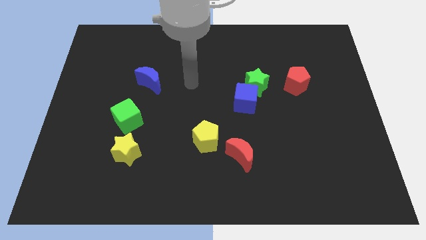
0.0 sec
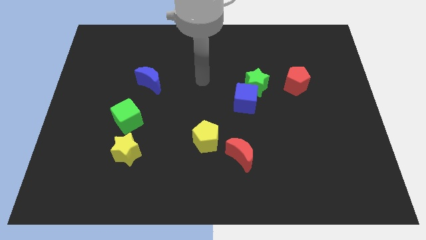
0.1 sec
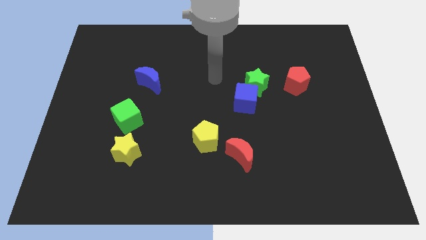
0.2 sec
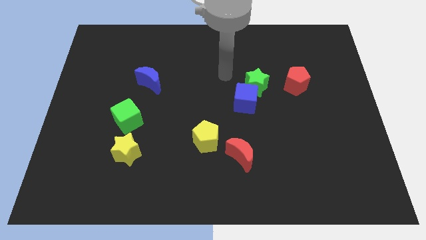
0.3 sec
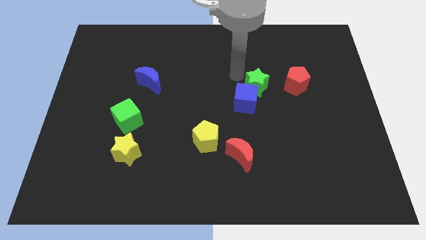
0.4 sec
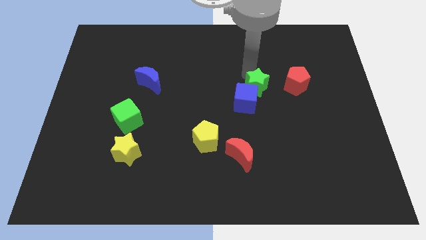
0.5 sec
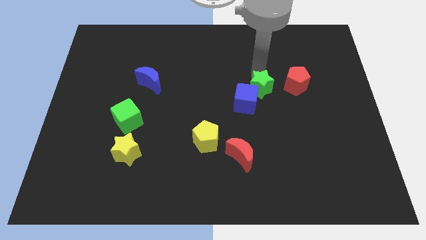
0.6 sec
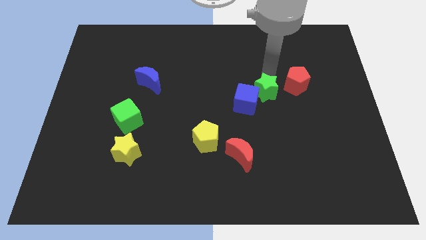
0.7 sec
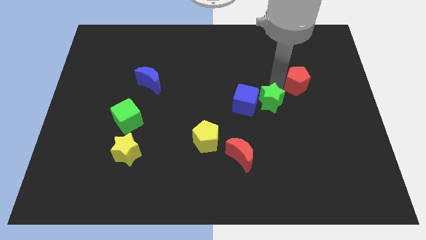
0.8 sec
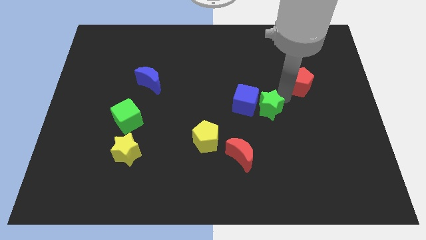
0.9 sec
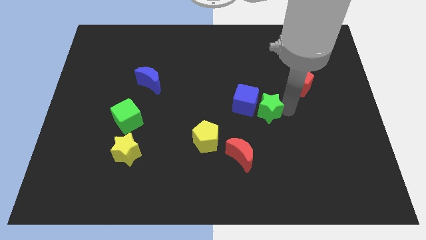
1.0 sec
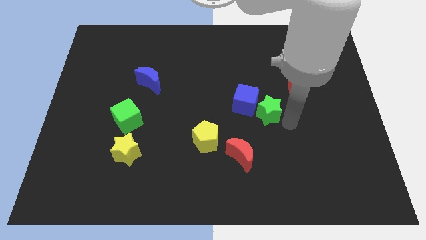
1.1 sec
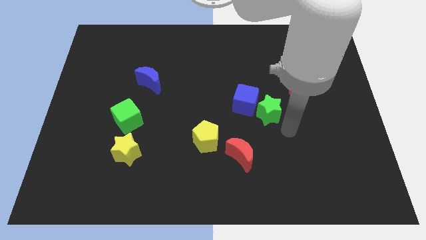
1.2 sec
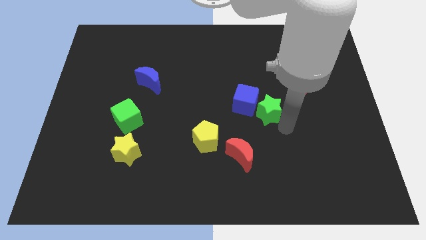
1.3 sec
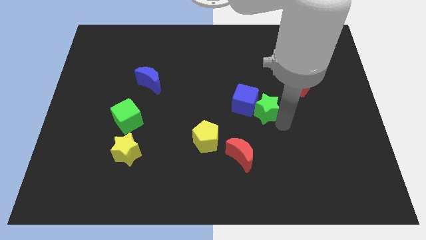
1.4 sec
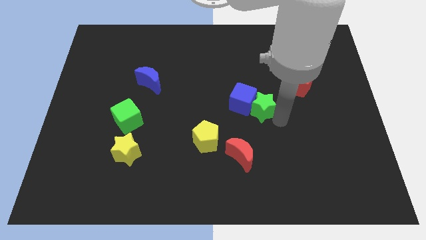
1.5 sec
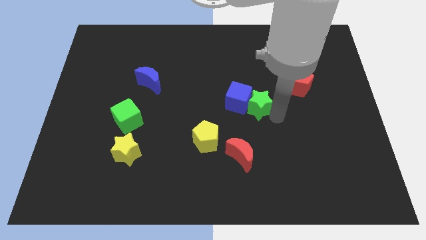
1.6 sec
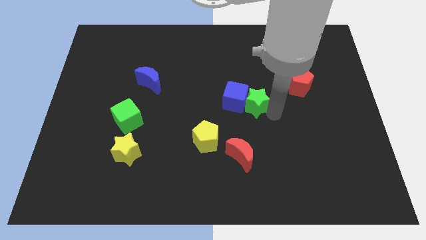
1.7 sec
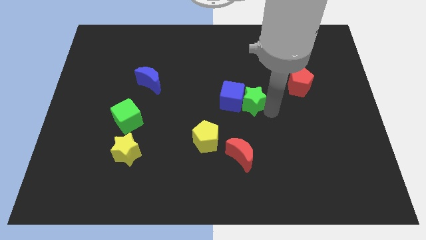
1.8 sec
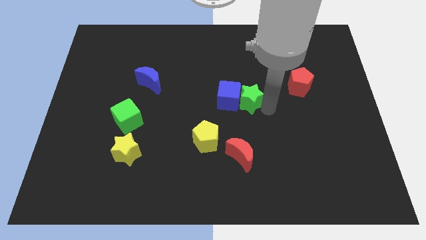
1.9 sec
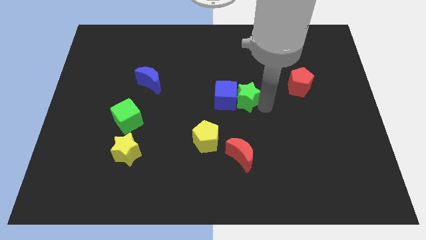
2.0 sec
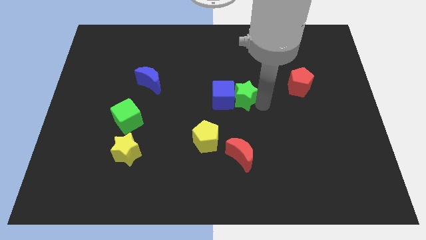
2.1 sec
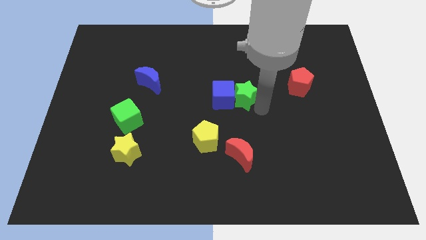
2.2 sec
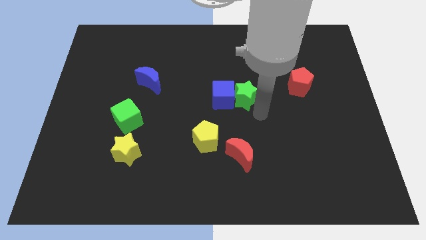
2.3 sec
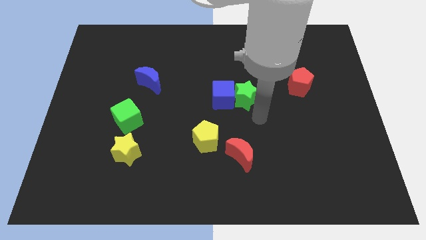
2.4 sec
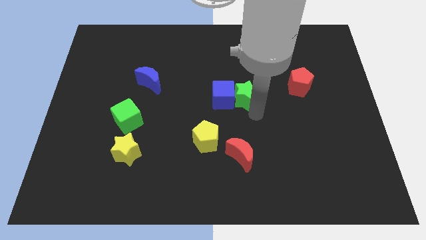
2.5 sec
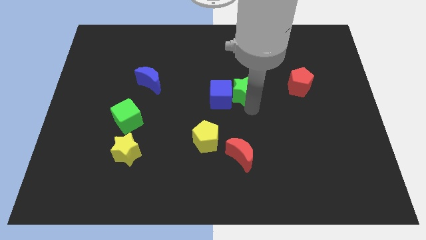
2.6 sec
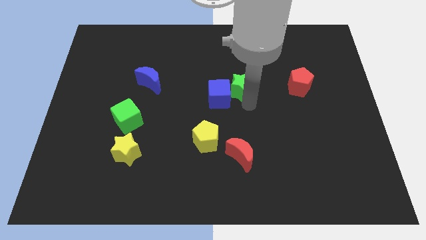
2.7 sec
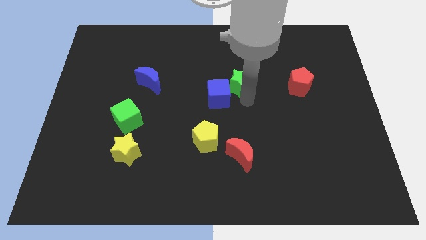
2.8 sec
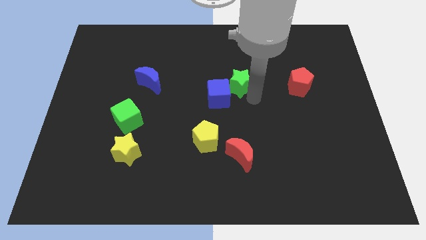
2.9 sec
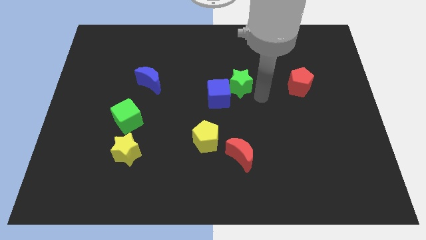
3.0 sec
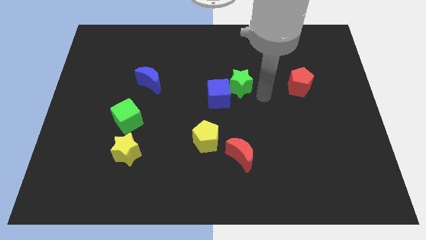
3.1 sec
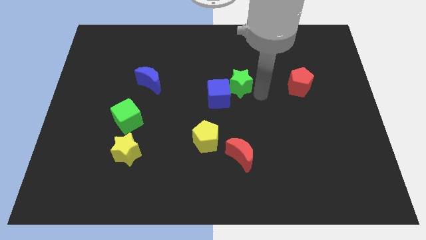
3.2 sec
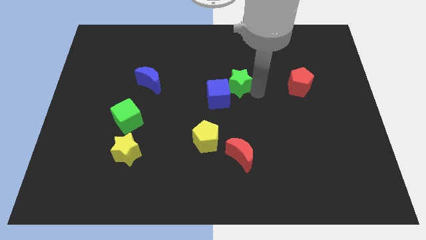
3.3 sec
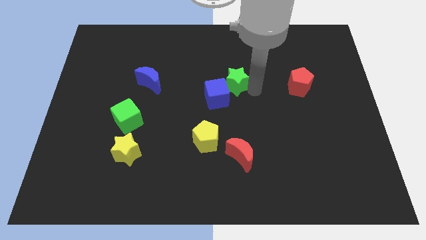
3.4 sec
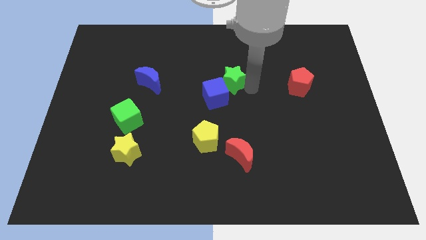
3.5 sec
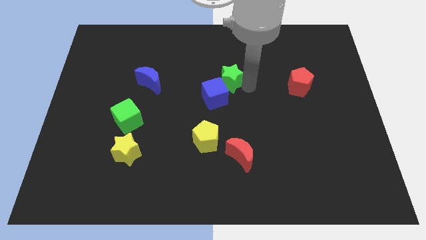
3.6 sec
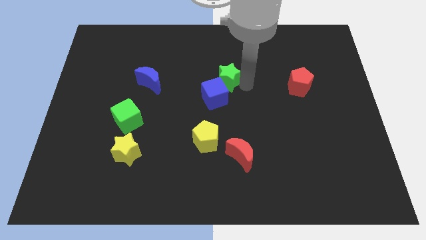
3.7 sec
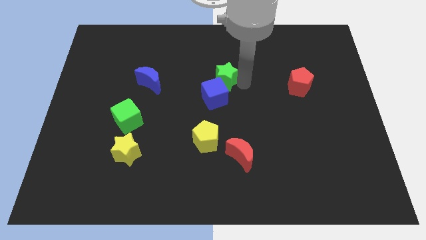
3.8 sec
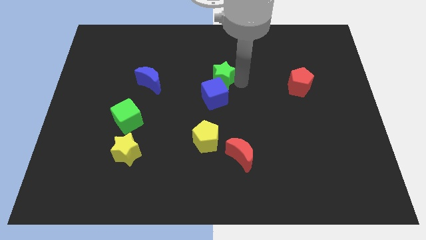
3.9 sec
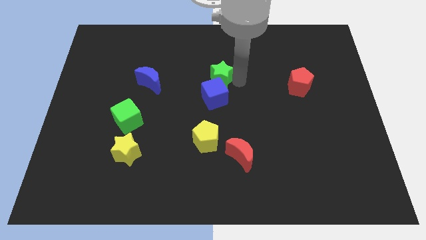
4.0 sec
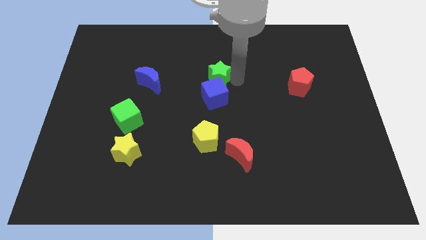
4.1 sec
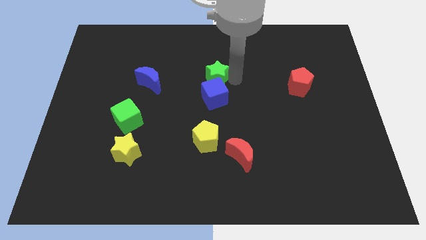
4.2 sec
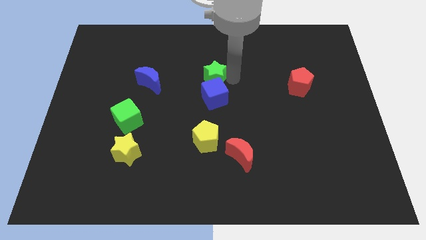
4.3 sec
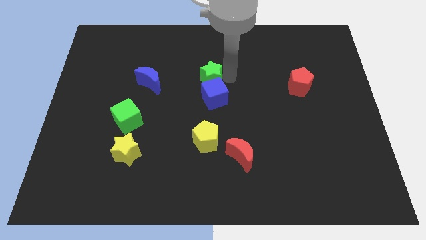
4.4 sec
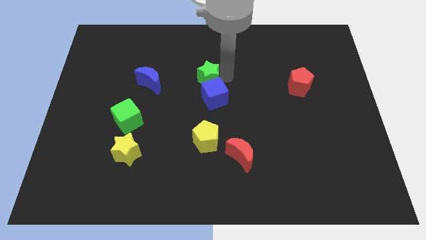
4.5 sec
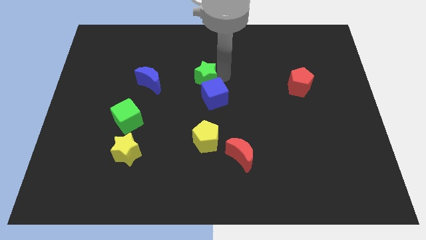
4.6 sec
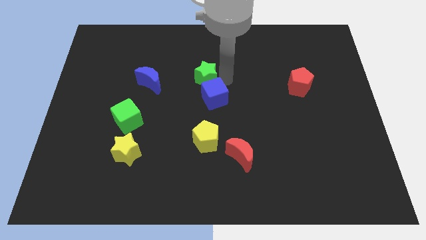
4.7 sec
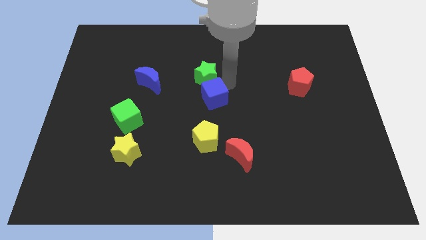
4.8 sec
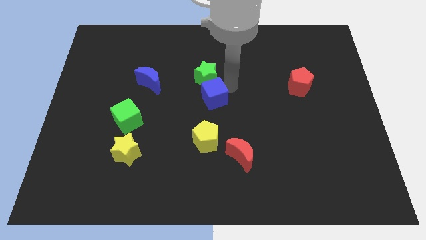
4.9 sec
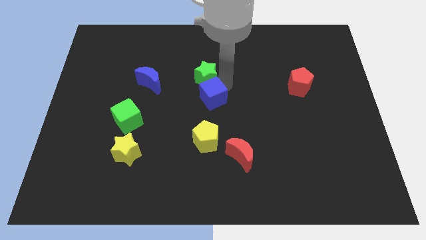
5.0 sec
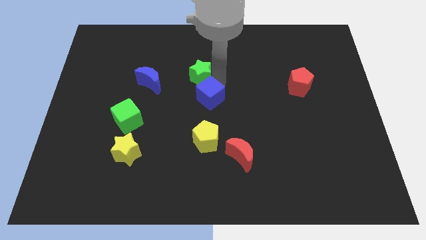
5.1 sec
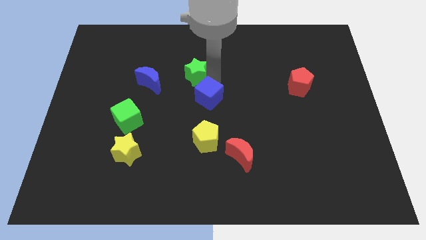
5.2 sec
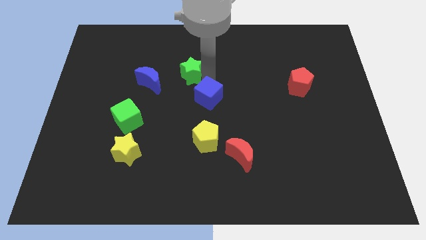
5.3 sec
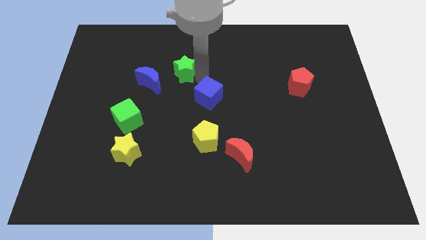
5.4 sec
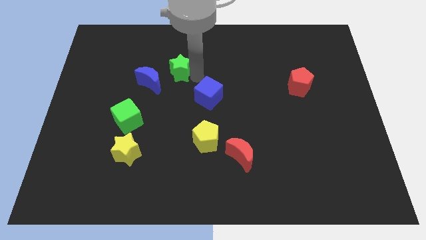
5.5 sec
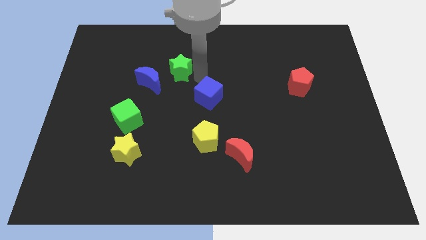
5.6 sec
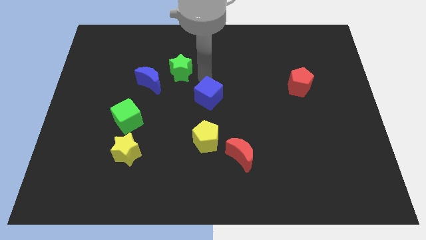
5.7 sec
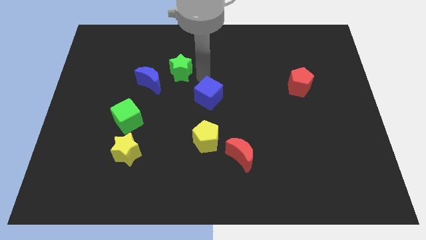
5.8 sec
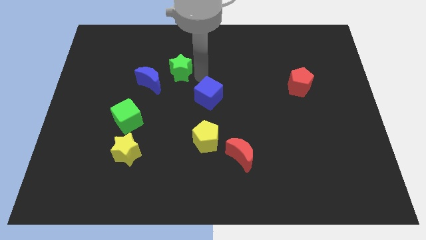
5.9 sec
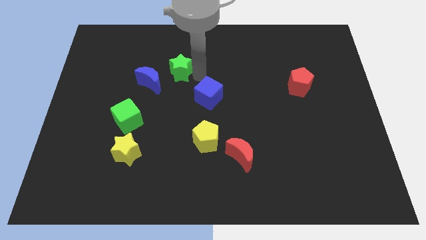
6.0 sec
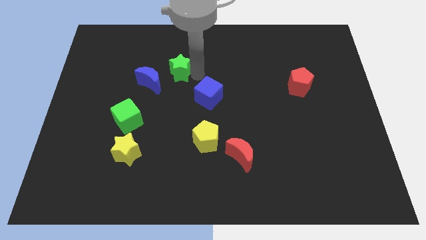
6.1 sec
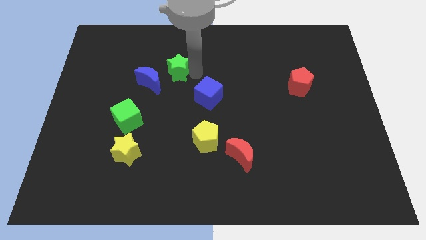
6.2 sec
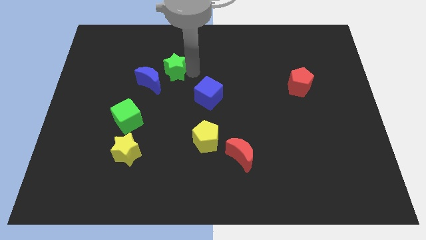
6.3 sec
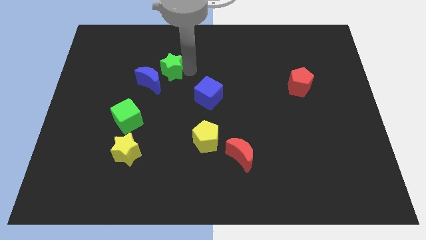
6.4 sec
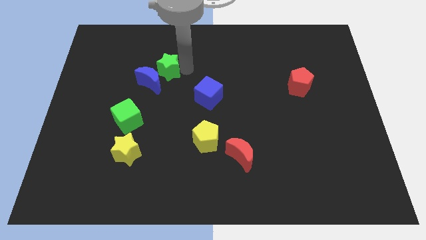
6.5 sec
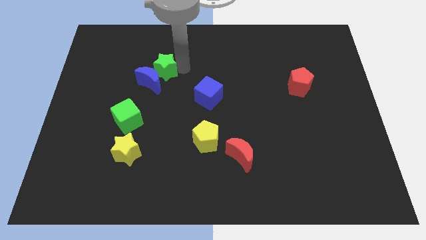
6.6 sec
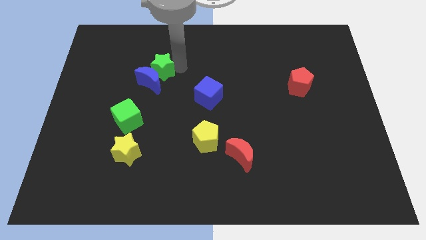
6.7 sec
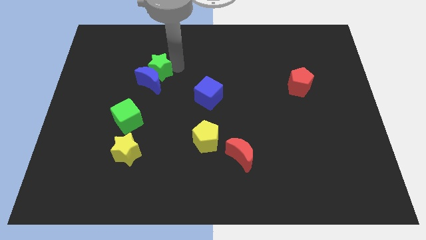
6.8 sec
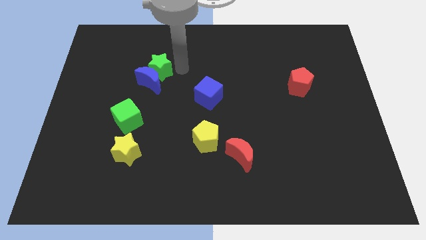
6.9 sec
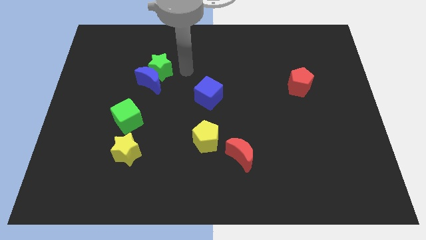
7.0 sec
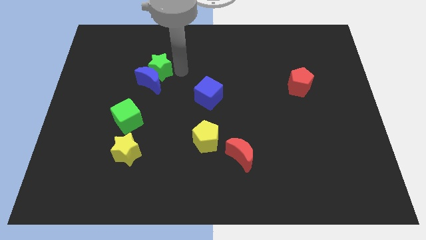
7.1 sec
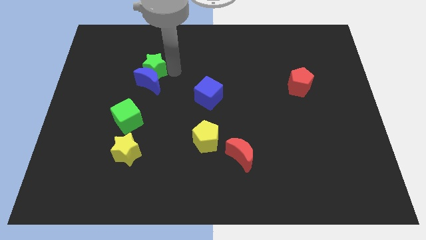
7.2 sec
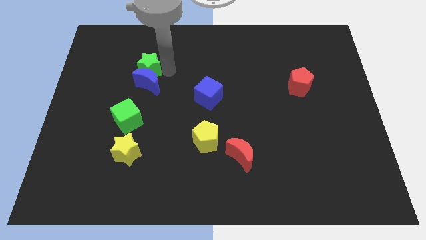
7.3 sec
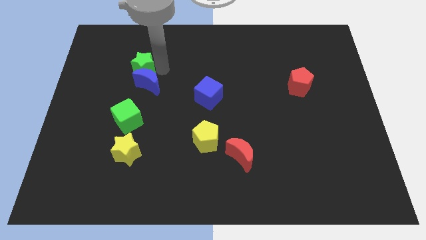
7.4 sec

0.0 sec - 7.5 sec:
put the green star above the green cube

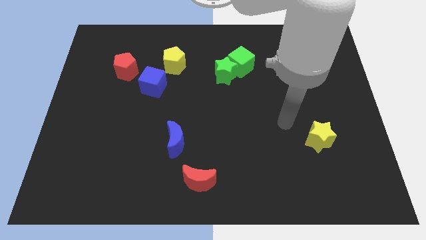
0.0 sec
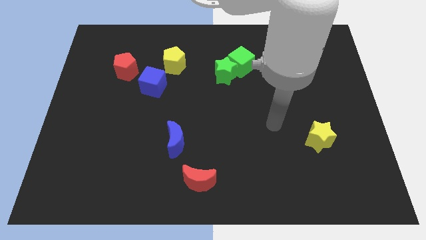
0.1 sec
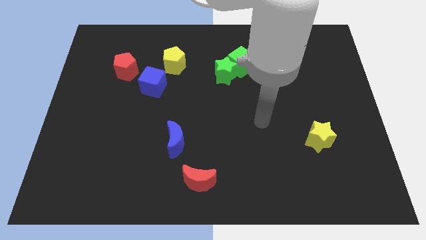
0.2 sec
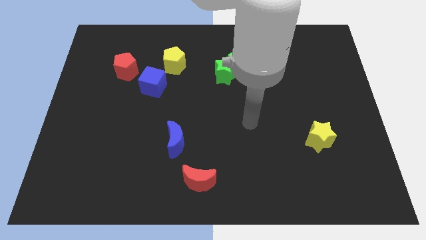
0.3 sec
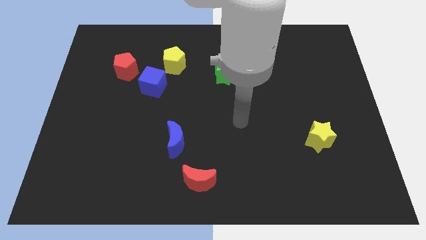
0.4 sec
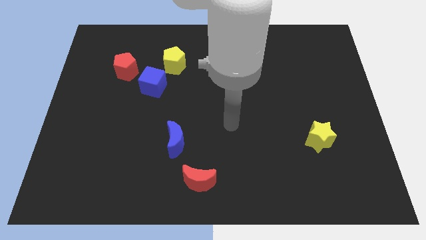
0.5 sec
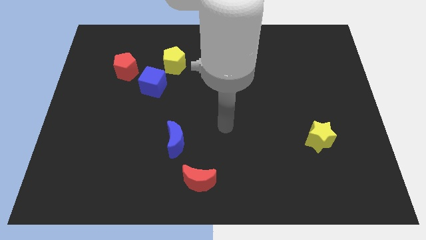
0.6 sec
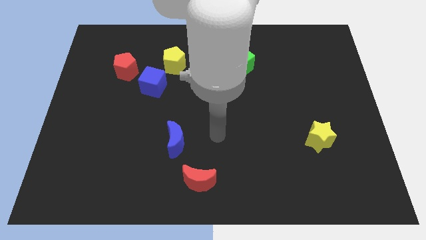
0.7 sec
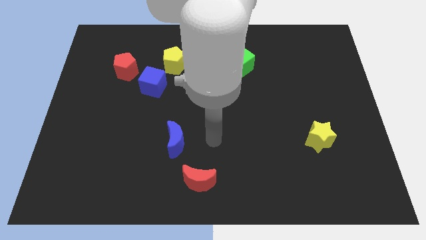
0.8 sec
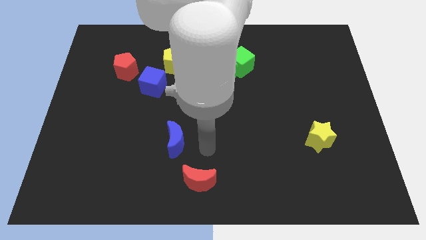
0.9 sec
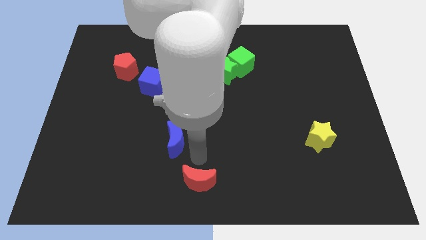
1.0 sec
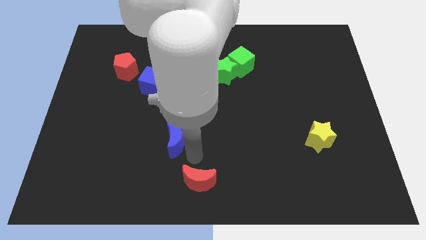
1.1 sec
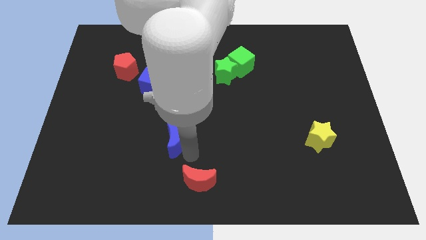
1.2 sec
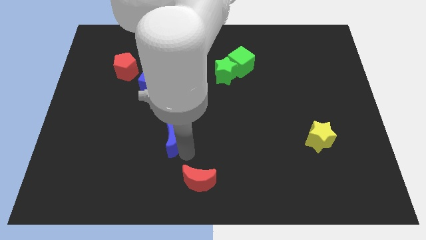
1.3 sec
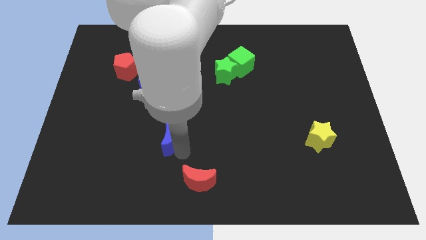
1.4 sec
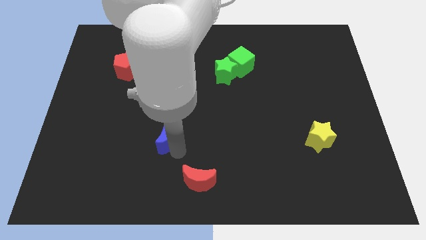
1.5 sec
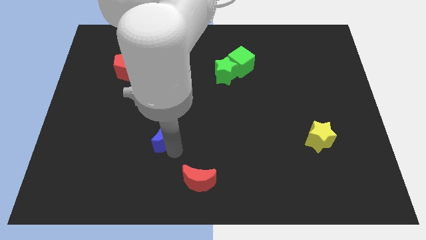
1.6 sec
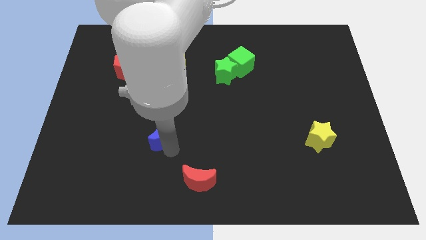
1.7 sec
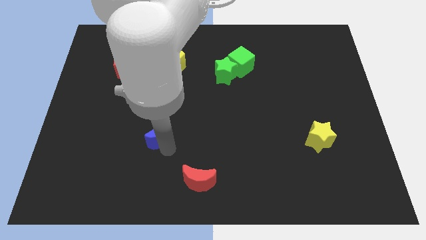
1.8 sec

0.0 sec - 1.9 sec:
put the blue moon below the blue cube
